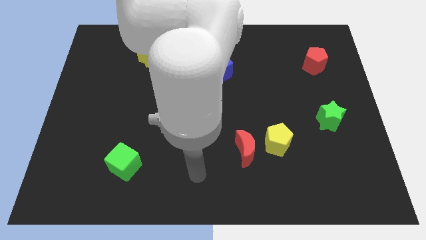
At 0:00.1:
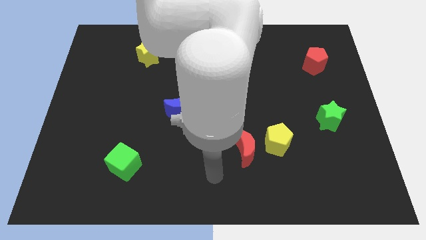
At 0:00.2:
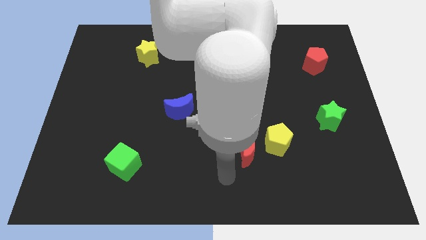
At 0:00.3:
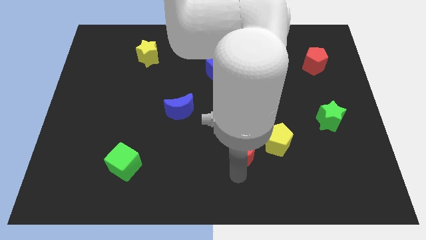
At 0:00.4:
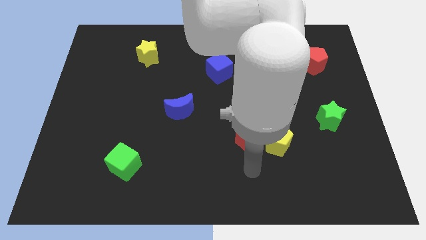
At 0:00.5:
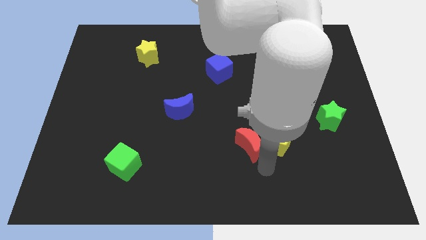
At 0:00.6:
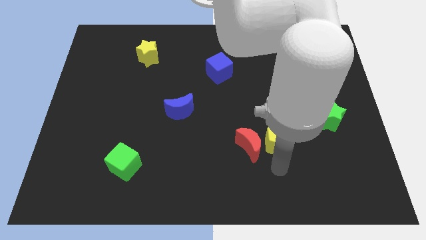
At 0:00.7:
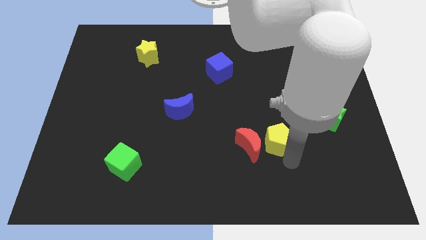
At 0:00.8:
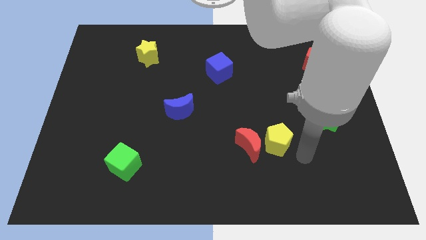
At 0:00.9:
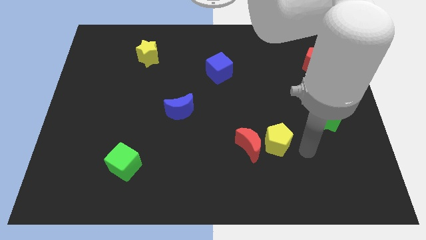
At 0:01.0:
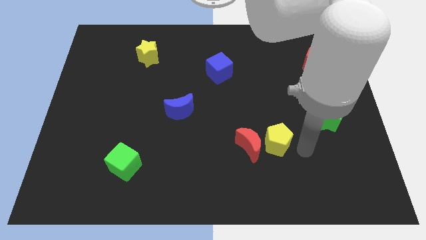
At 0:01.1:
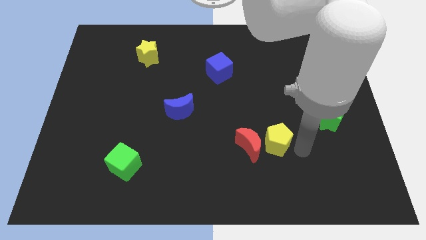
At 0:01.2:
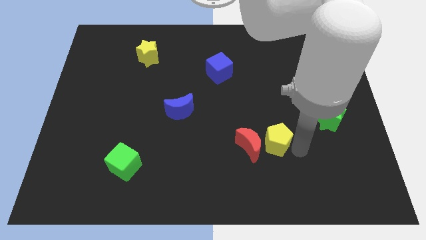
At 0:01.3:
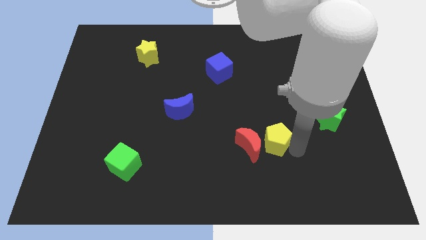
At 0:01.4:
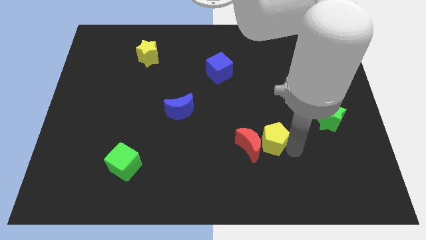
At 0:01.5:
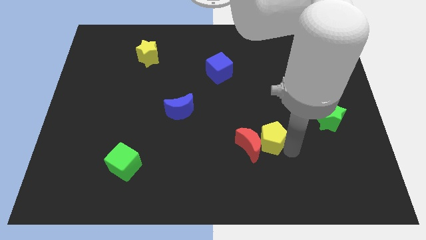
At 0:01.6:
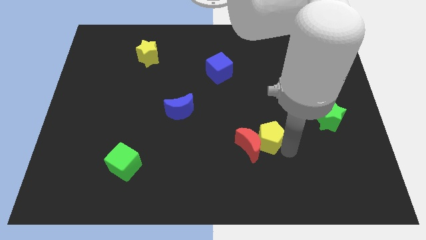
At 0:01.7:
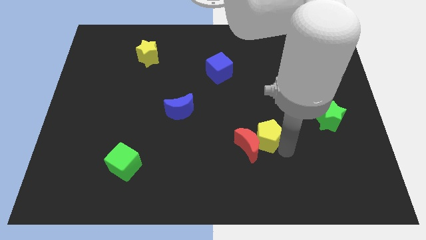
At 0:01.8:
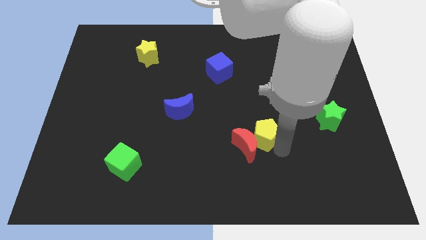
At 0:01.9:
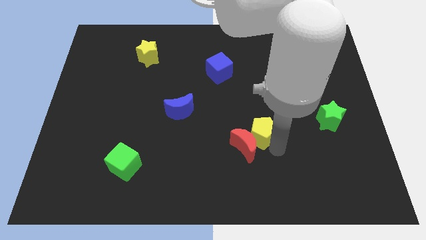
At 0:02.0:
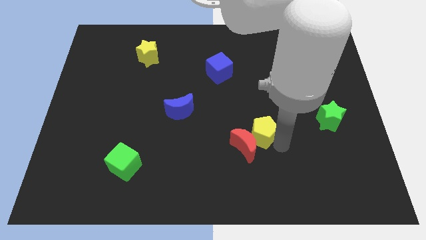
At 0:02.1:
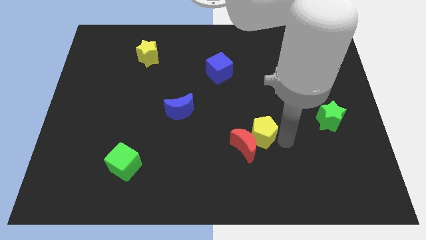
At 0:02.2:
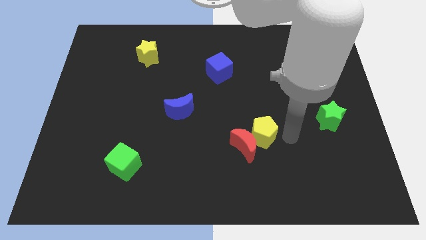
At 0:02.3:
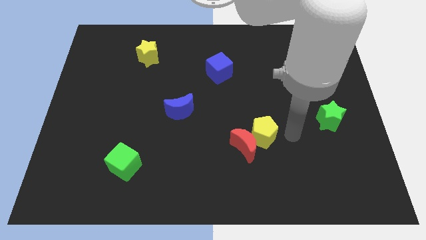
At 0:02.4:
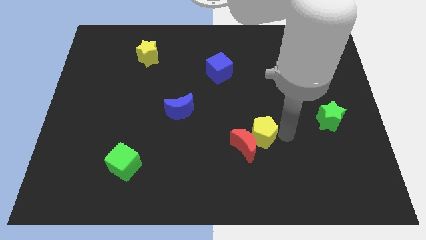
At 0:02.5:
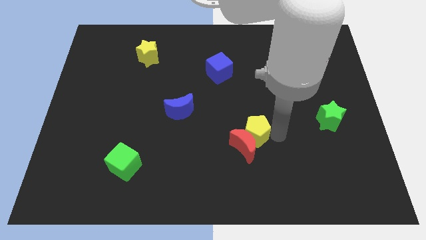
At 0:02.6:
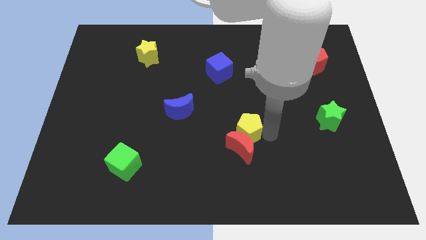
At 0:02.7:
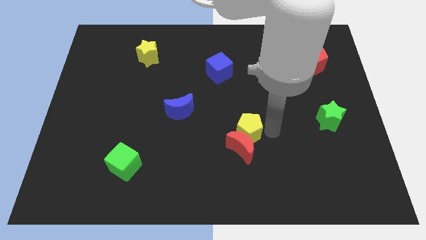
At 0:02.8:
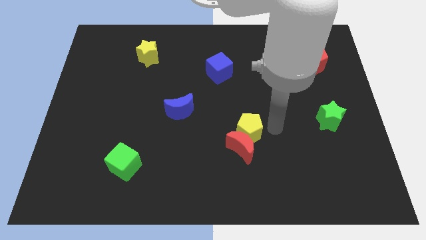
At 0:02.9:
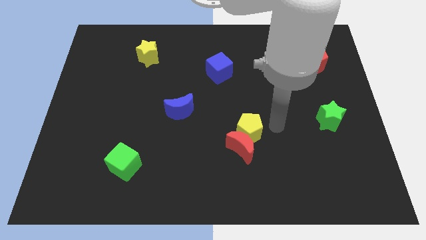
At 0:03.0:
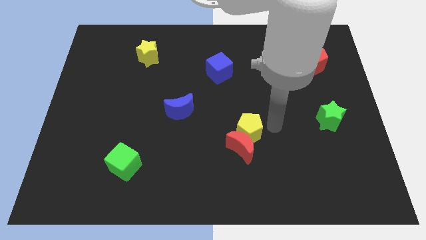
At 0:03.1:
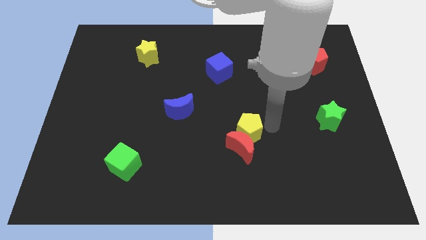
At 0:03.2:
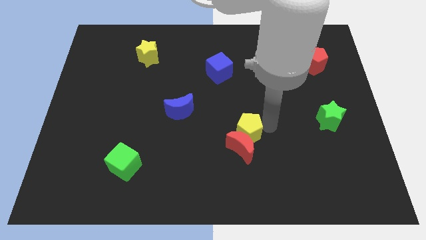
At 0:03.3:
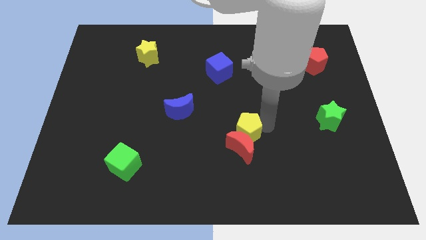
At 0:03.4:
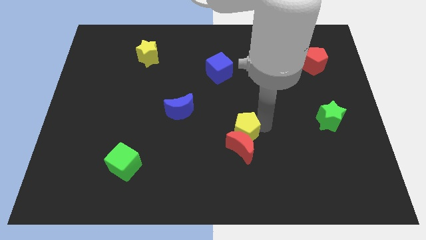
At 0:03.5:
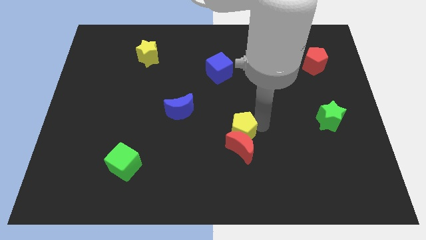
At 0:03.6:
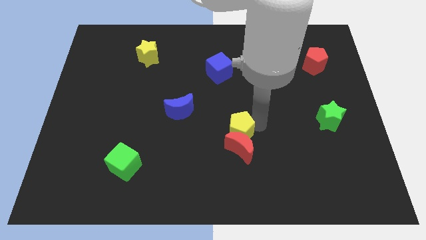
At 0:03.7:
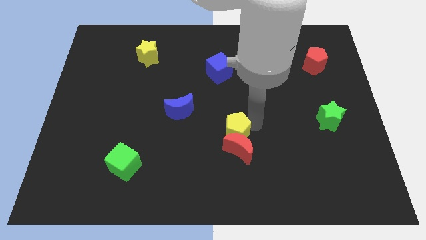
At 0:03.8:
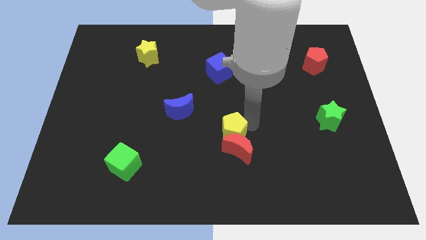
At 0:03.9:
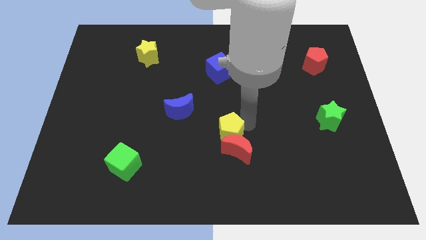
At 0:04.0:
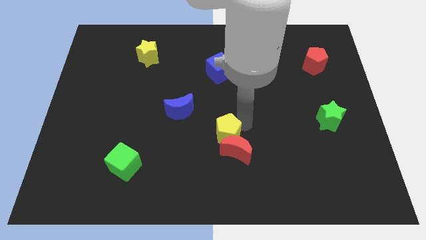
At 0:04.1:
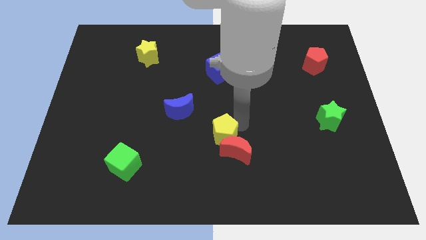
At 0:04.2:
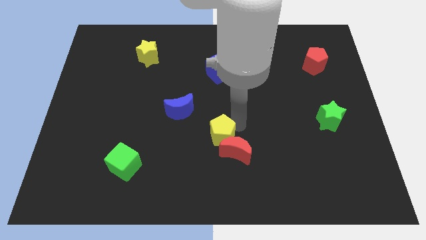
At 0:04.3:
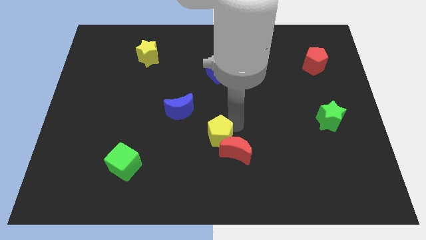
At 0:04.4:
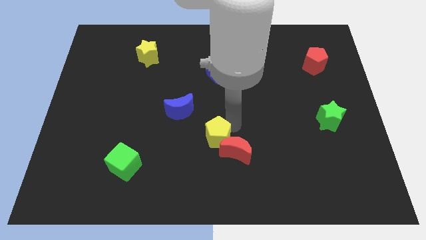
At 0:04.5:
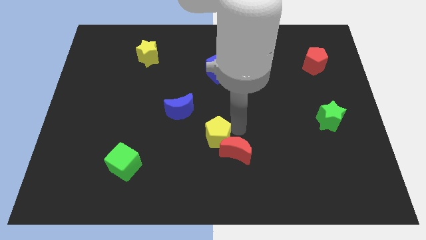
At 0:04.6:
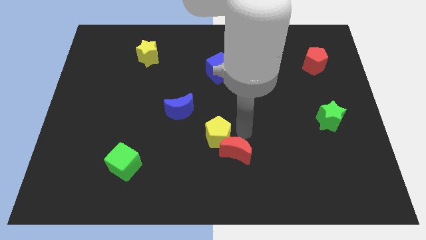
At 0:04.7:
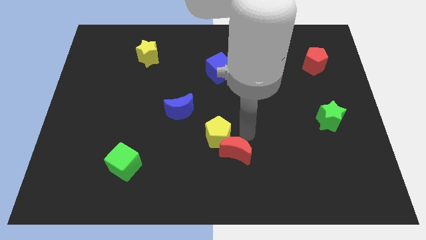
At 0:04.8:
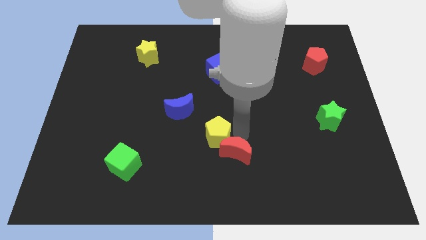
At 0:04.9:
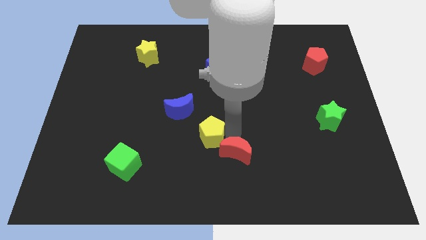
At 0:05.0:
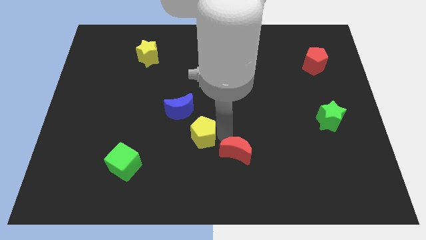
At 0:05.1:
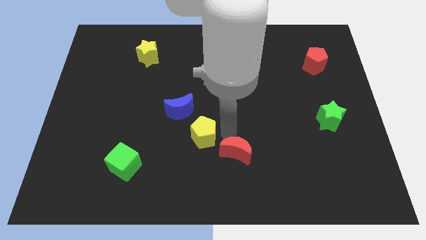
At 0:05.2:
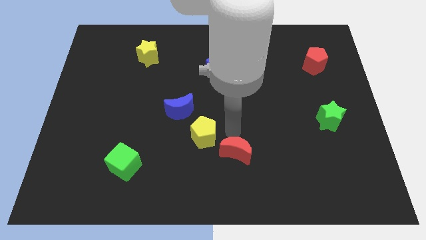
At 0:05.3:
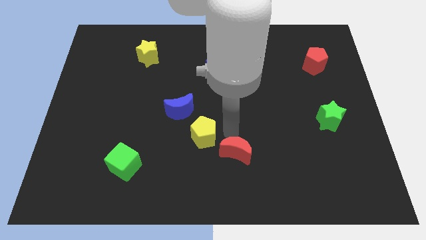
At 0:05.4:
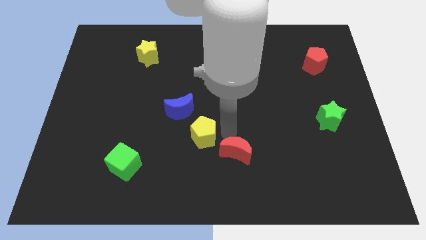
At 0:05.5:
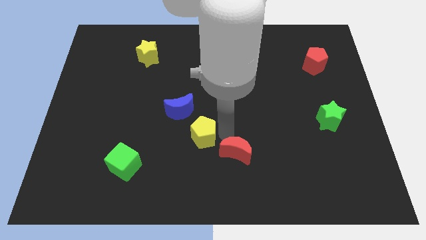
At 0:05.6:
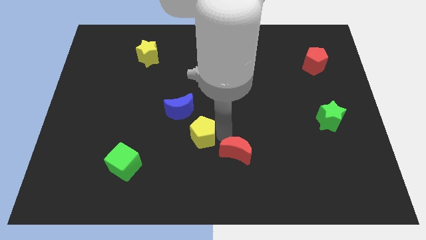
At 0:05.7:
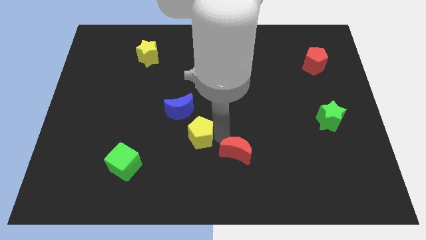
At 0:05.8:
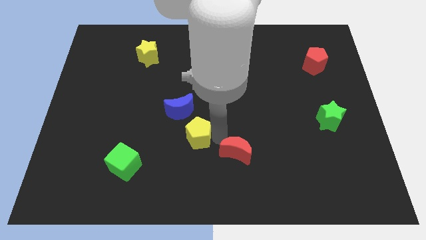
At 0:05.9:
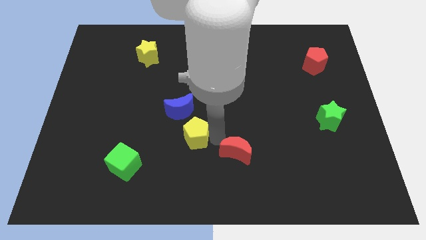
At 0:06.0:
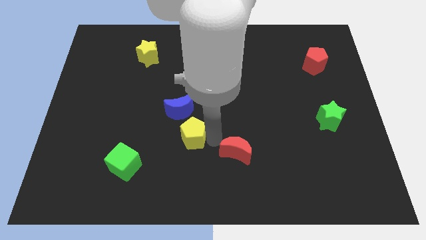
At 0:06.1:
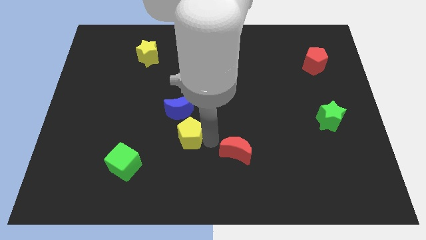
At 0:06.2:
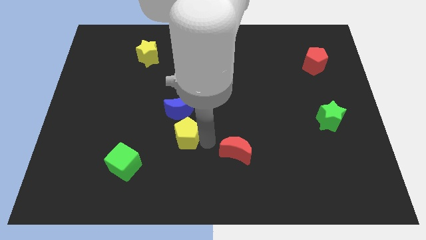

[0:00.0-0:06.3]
move the yellow pentagon left

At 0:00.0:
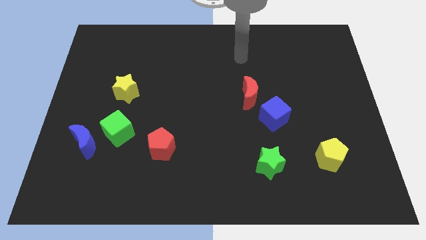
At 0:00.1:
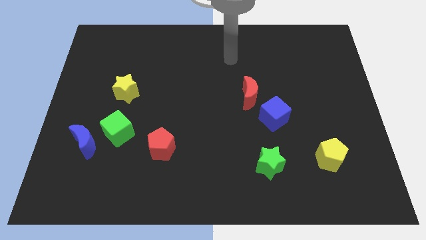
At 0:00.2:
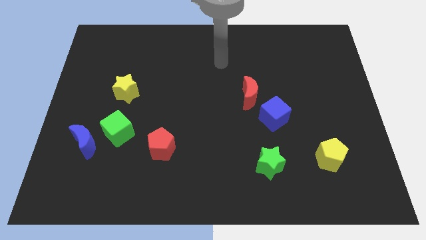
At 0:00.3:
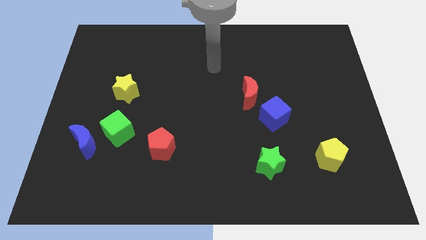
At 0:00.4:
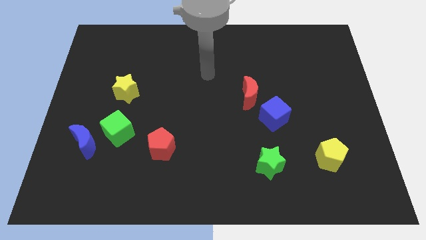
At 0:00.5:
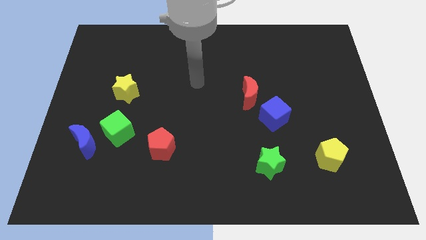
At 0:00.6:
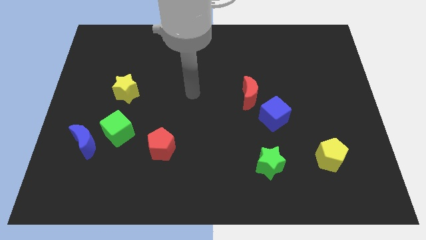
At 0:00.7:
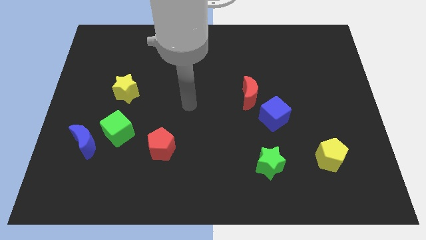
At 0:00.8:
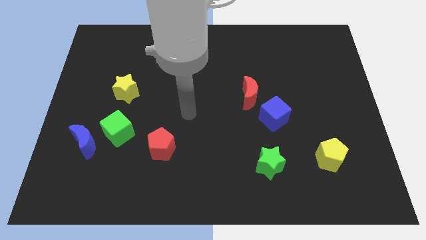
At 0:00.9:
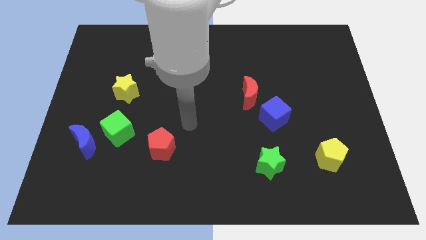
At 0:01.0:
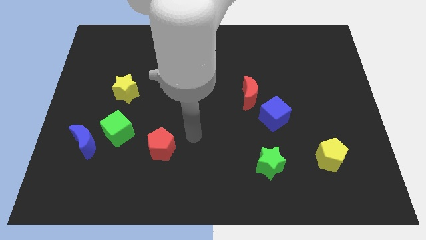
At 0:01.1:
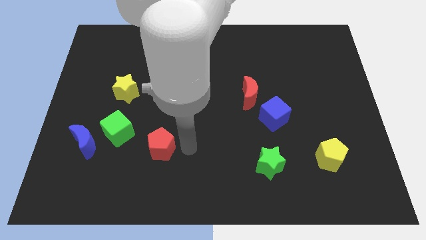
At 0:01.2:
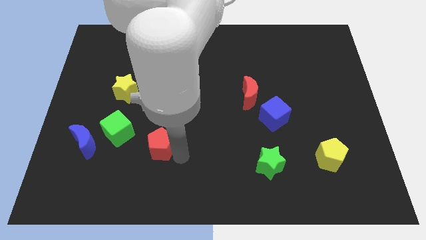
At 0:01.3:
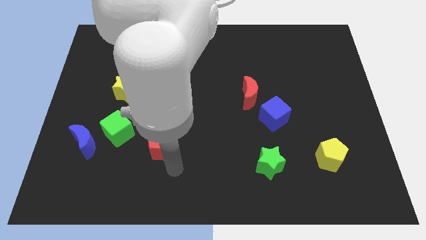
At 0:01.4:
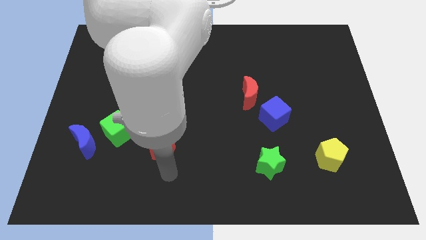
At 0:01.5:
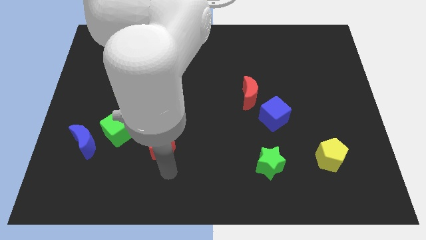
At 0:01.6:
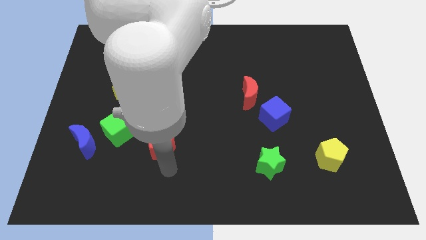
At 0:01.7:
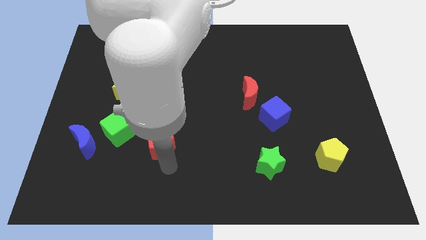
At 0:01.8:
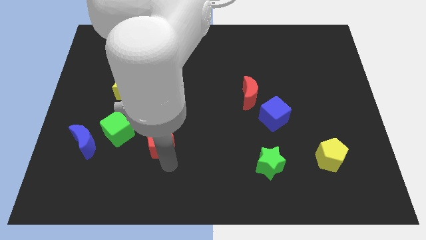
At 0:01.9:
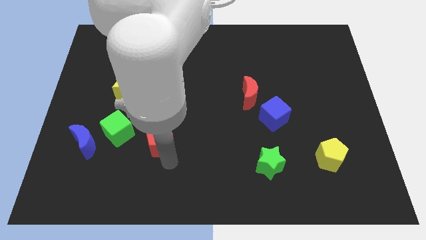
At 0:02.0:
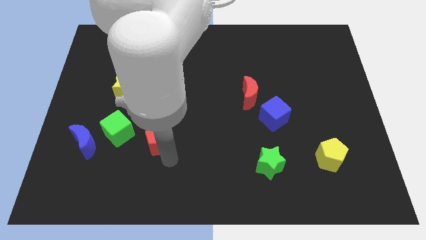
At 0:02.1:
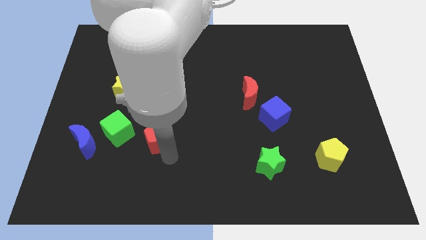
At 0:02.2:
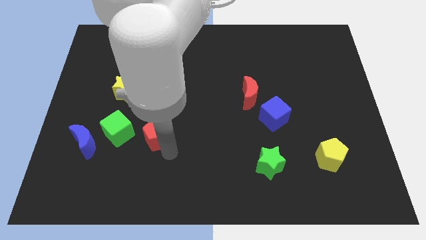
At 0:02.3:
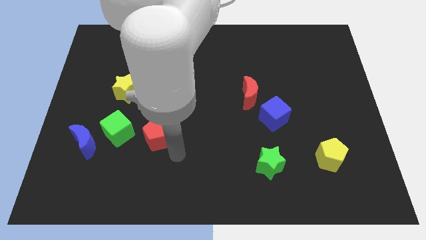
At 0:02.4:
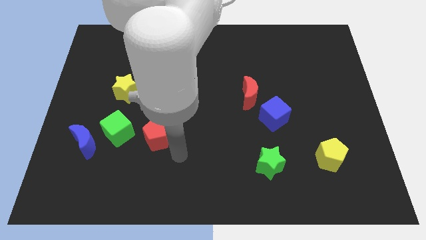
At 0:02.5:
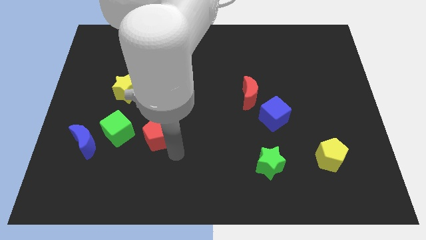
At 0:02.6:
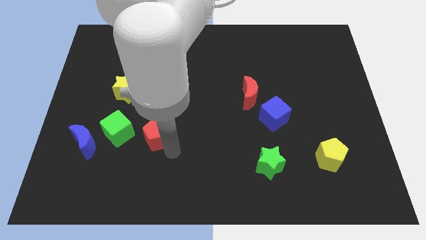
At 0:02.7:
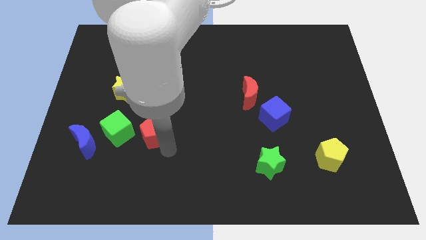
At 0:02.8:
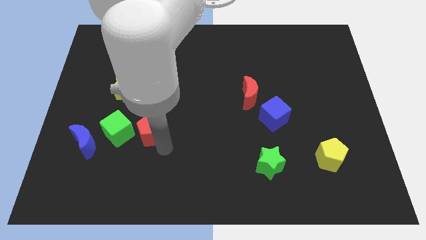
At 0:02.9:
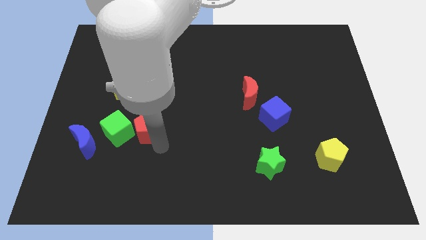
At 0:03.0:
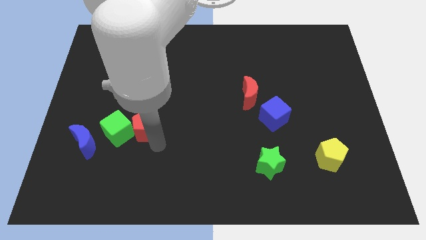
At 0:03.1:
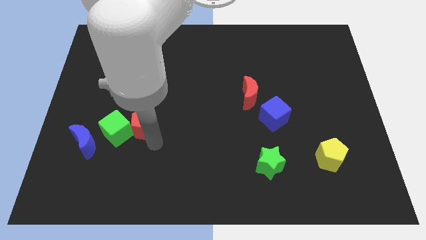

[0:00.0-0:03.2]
push the red pentagon a little bit up and to the left diagonally
